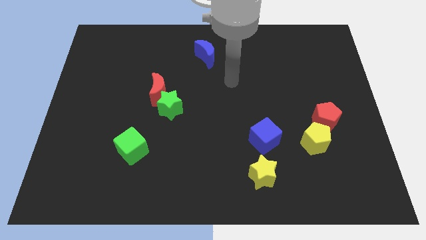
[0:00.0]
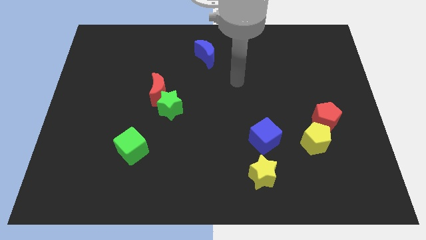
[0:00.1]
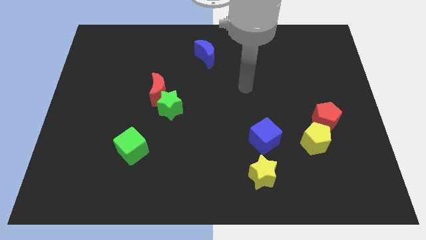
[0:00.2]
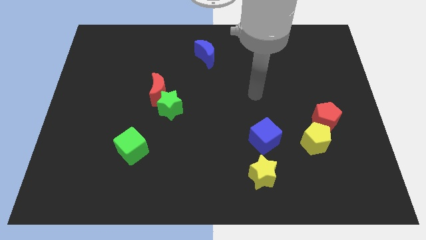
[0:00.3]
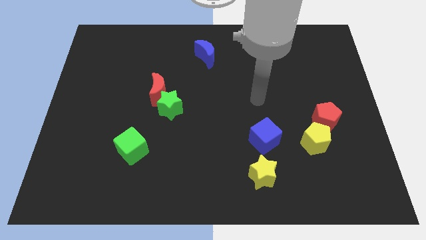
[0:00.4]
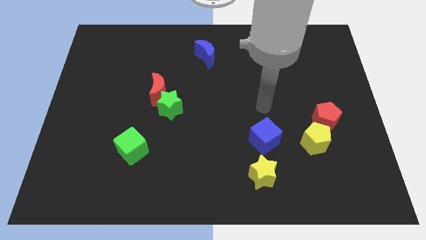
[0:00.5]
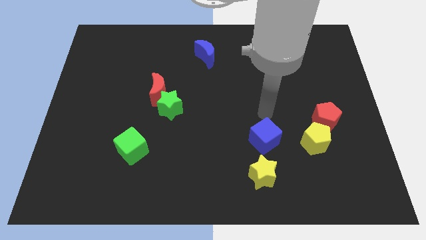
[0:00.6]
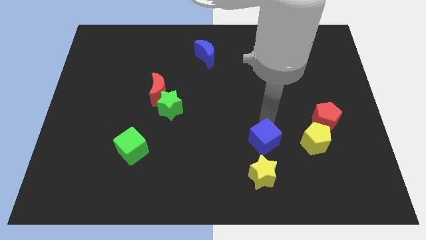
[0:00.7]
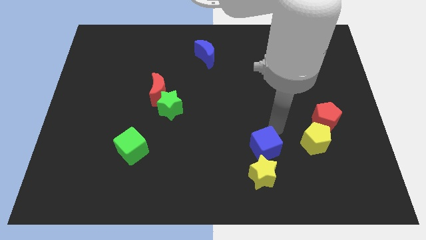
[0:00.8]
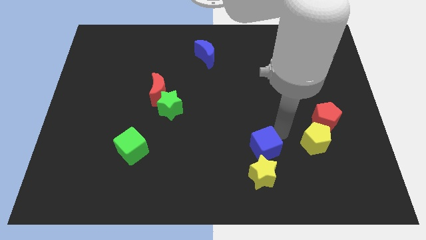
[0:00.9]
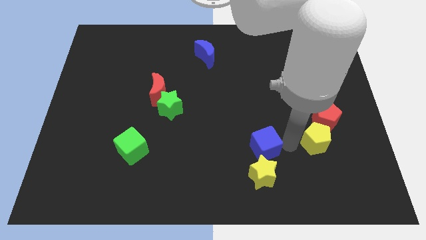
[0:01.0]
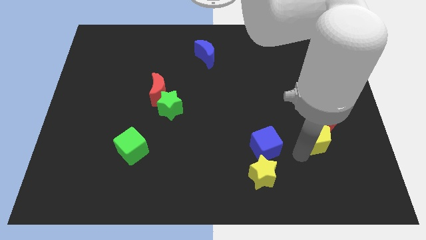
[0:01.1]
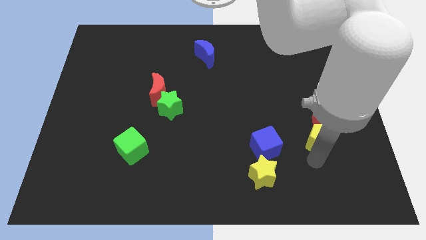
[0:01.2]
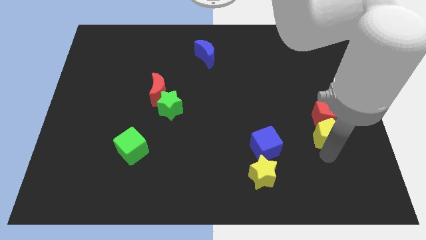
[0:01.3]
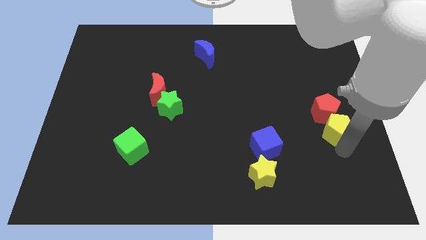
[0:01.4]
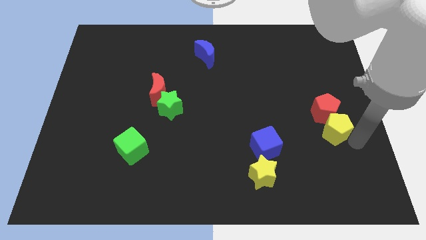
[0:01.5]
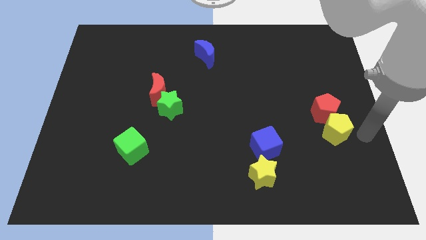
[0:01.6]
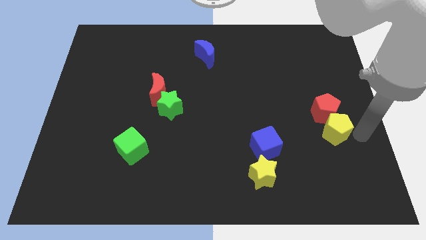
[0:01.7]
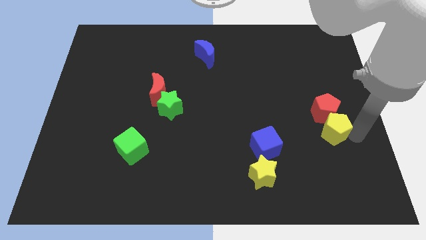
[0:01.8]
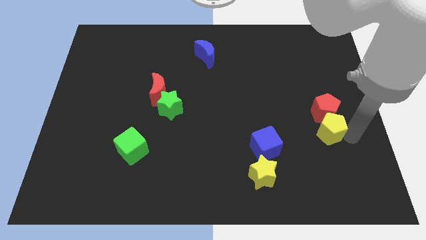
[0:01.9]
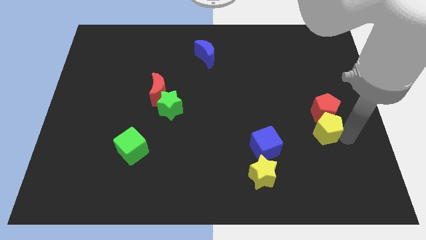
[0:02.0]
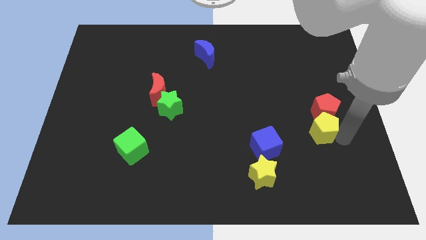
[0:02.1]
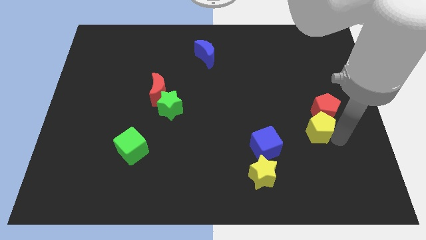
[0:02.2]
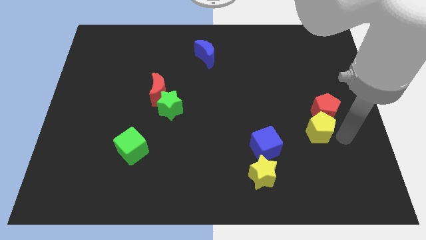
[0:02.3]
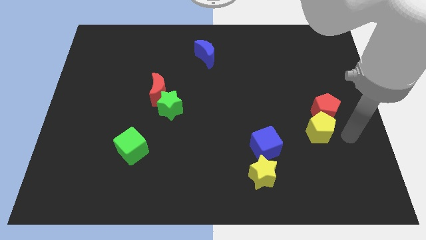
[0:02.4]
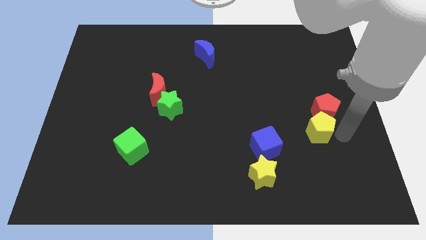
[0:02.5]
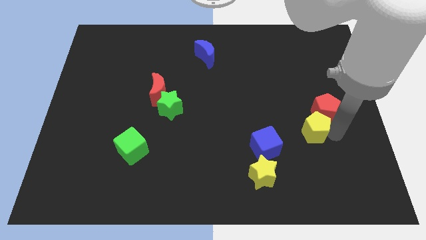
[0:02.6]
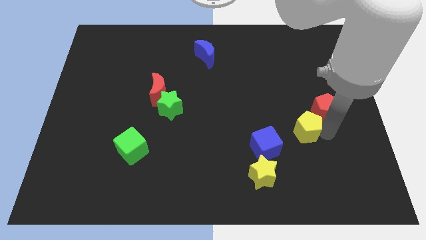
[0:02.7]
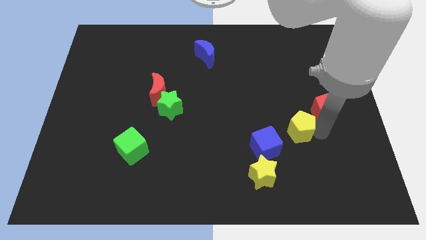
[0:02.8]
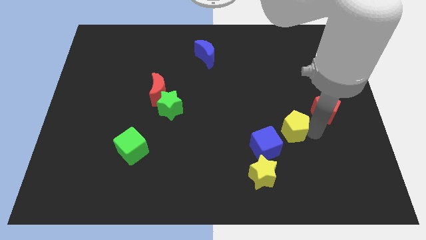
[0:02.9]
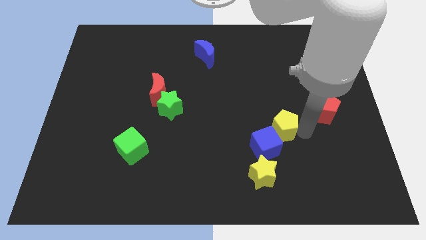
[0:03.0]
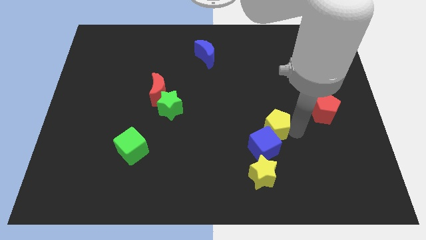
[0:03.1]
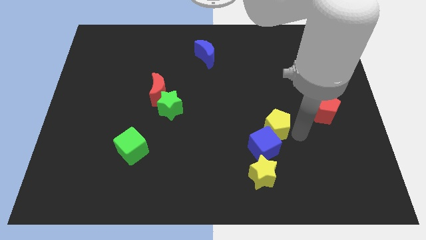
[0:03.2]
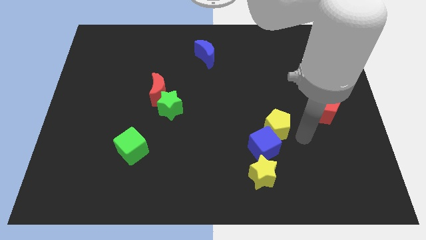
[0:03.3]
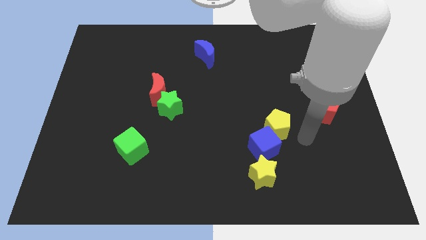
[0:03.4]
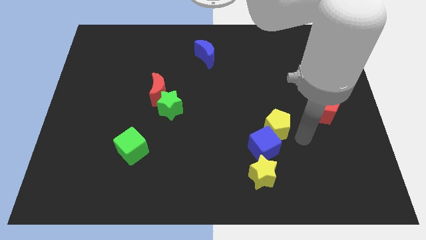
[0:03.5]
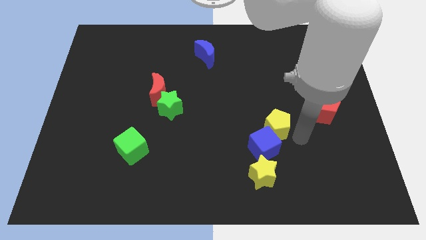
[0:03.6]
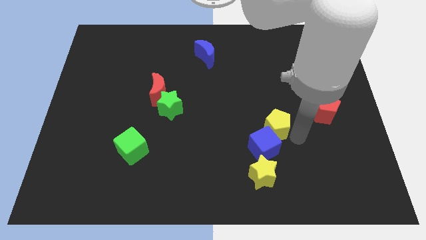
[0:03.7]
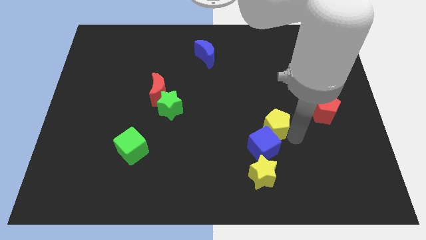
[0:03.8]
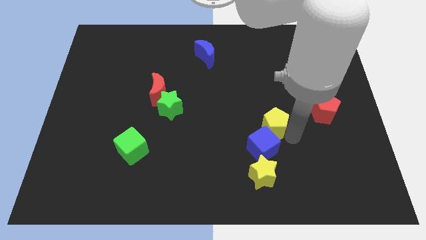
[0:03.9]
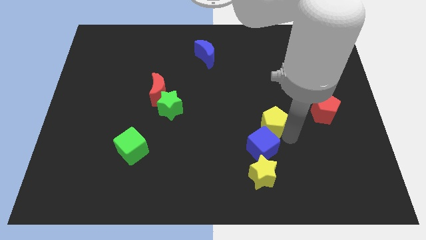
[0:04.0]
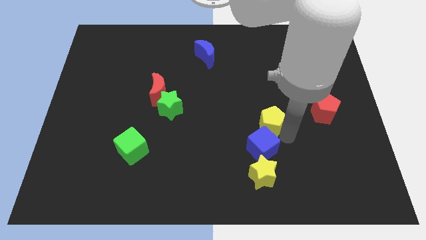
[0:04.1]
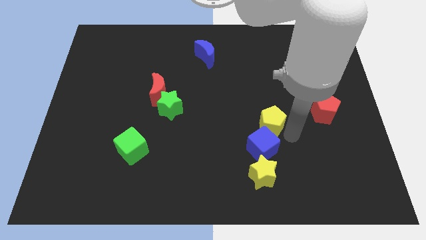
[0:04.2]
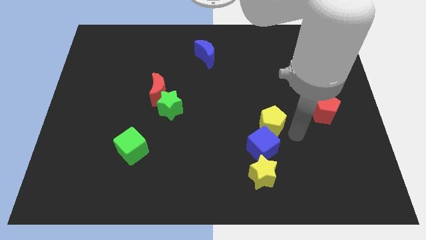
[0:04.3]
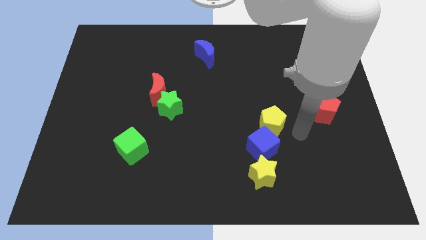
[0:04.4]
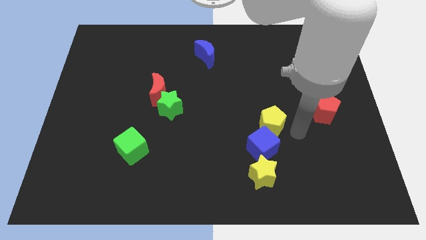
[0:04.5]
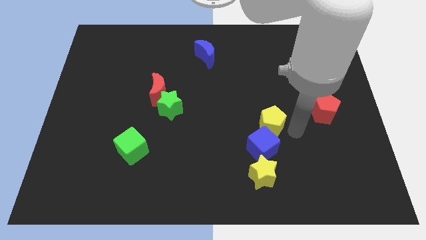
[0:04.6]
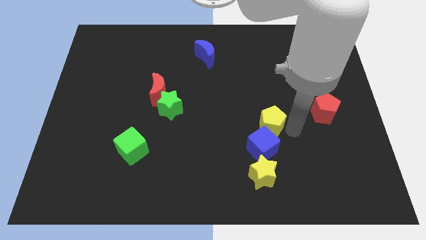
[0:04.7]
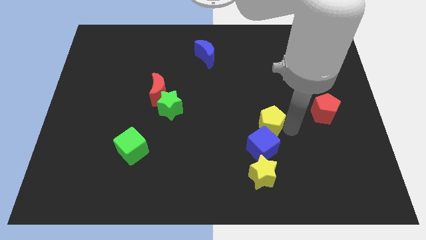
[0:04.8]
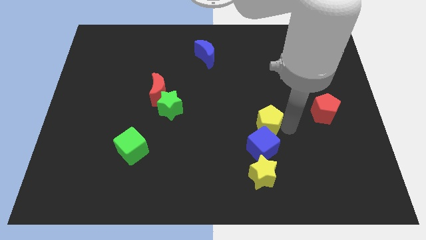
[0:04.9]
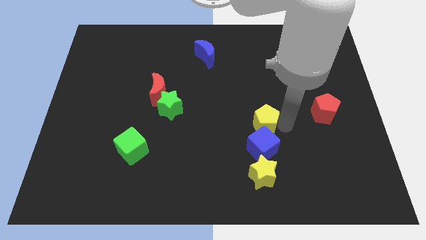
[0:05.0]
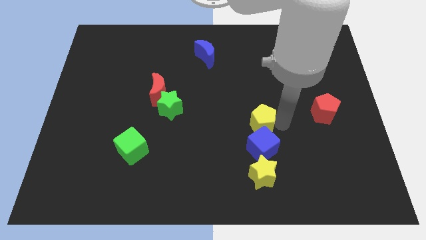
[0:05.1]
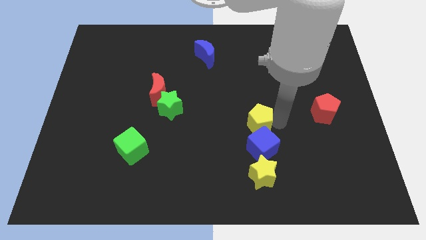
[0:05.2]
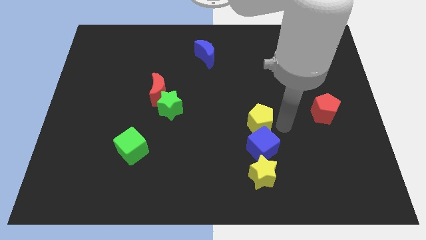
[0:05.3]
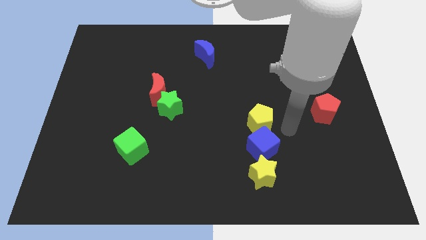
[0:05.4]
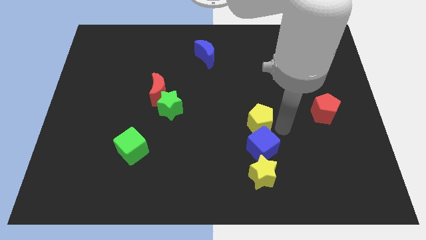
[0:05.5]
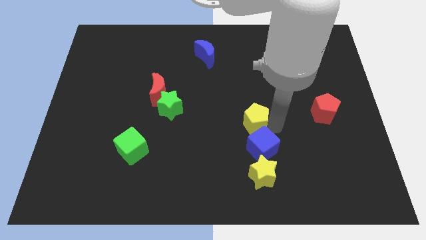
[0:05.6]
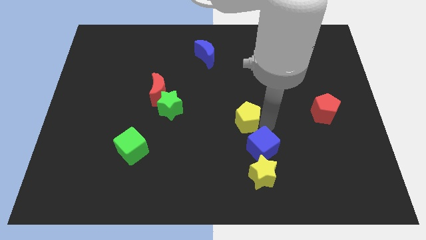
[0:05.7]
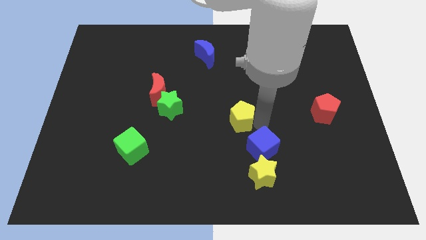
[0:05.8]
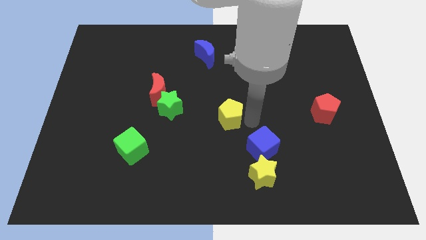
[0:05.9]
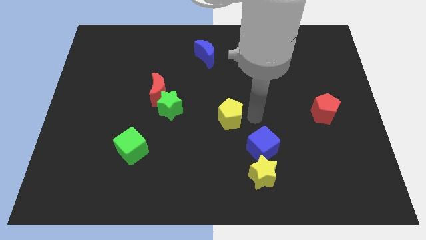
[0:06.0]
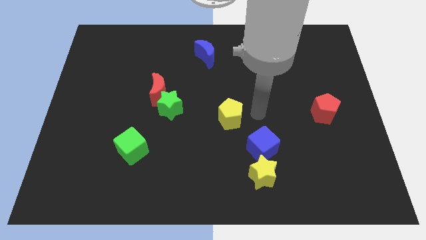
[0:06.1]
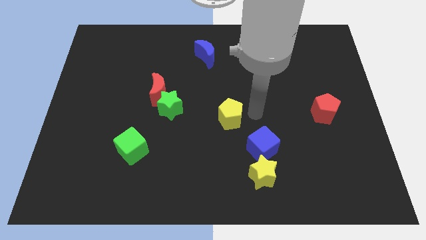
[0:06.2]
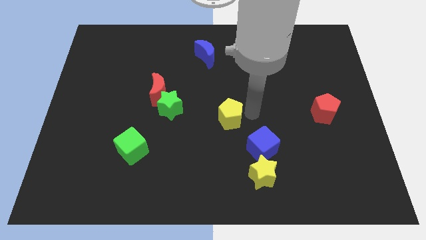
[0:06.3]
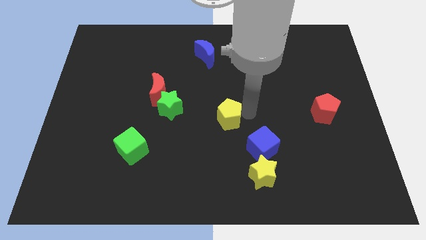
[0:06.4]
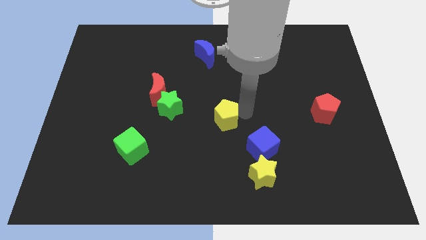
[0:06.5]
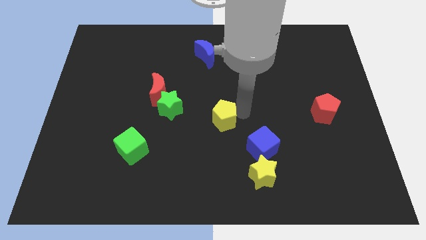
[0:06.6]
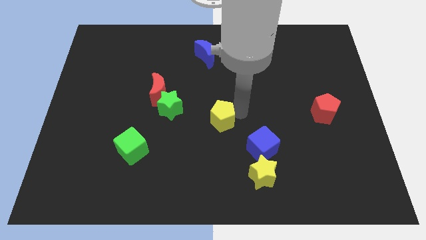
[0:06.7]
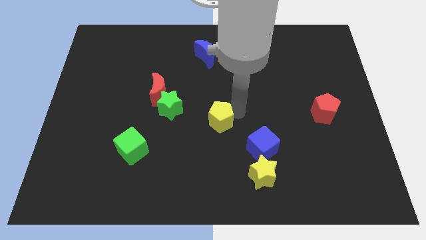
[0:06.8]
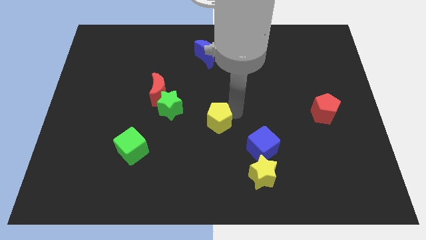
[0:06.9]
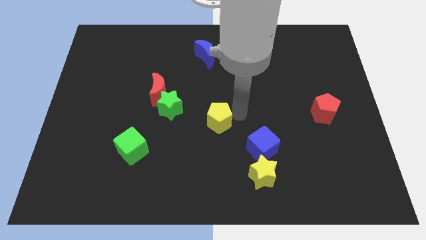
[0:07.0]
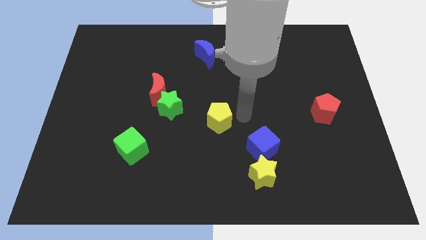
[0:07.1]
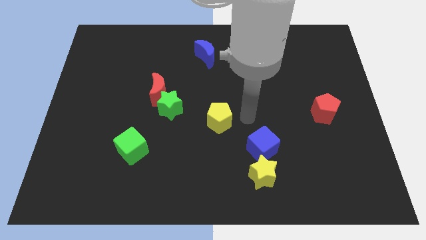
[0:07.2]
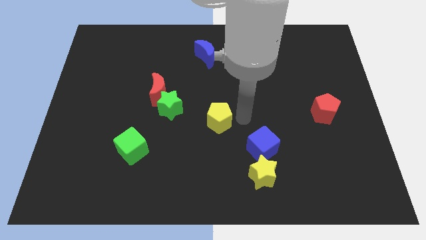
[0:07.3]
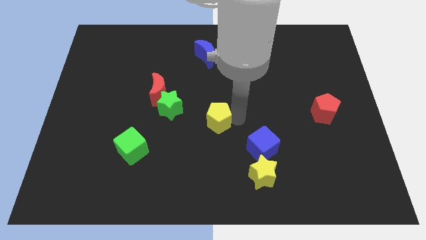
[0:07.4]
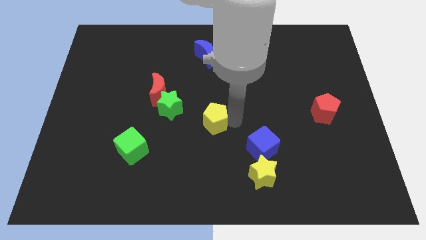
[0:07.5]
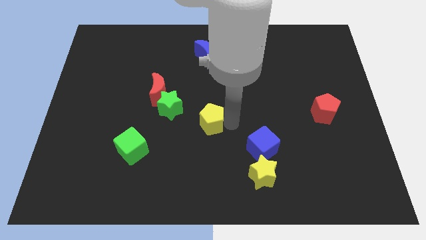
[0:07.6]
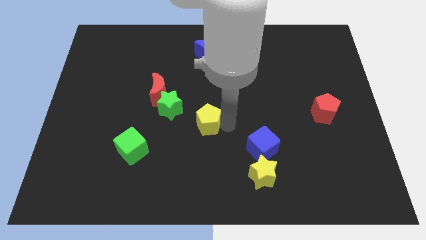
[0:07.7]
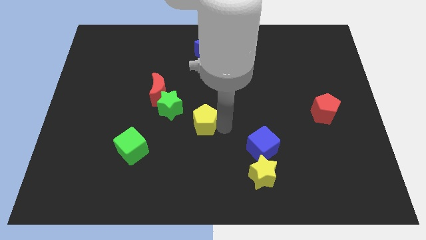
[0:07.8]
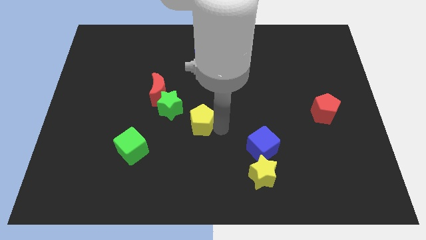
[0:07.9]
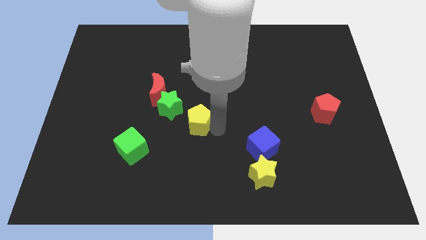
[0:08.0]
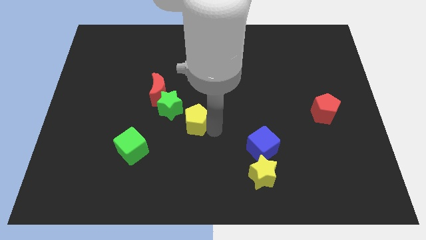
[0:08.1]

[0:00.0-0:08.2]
slide the yellow pentagon to the bottom right of the red moon
